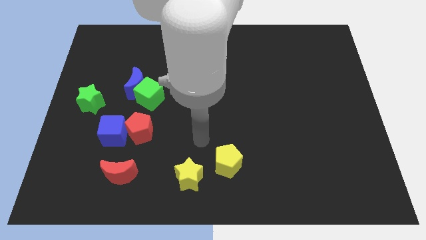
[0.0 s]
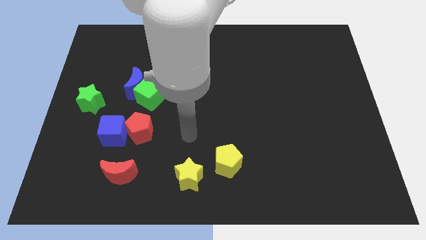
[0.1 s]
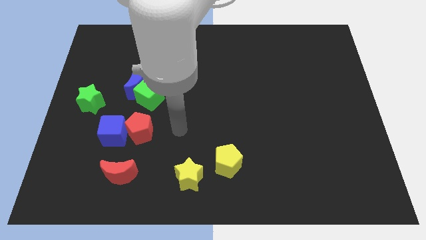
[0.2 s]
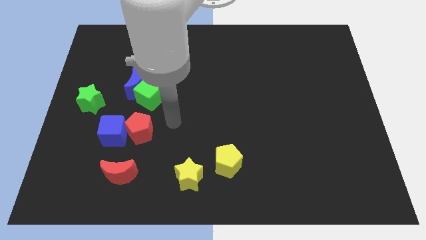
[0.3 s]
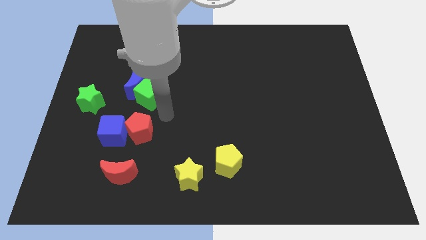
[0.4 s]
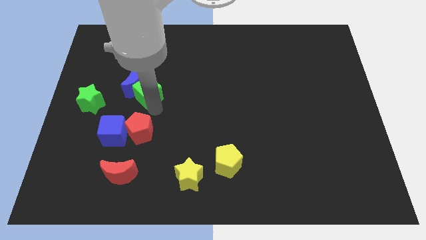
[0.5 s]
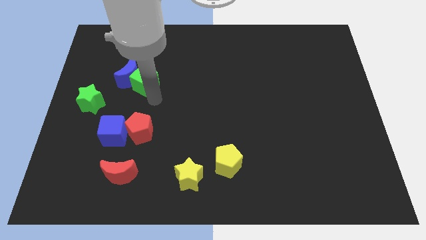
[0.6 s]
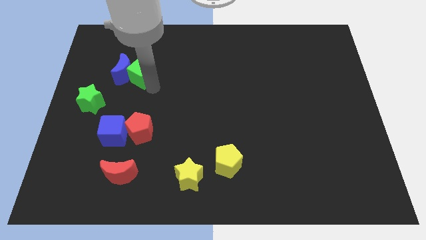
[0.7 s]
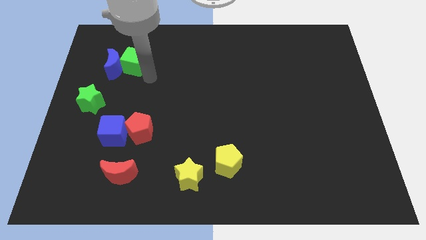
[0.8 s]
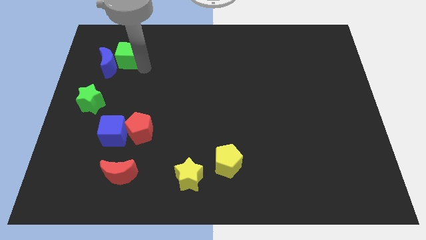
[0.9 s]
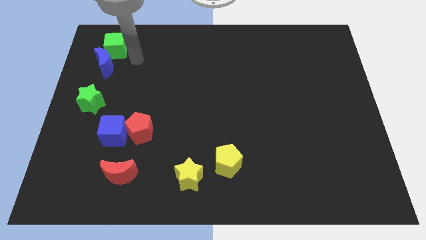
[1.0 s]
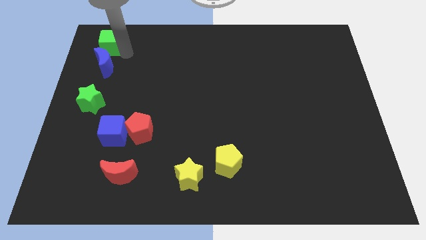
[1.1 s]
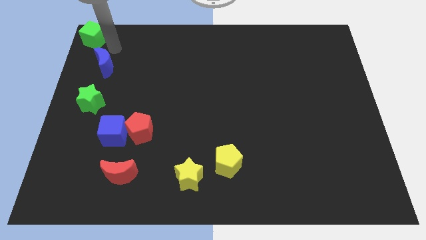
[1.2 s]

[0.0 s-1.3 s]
pull the blue moon apart from the green cube

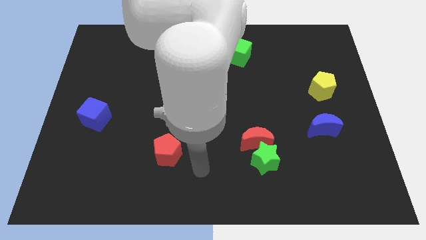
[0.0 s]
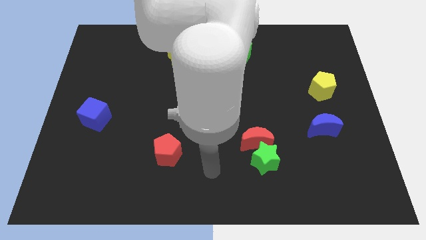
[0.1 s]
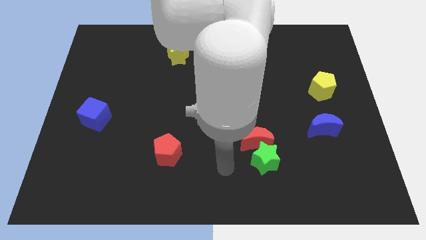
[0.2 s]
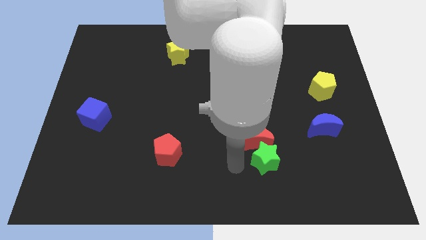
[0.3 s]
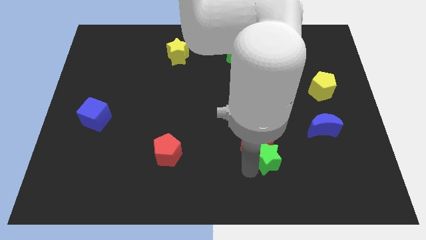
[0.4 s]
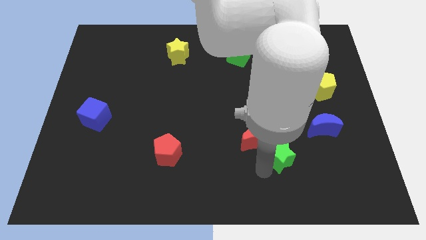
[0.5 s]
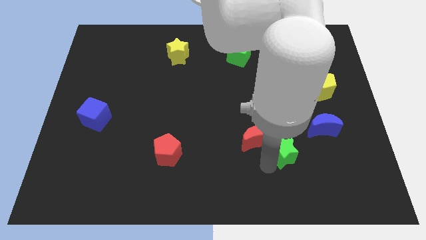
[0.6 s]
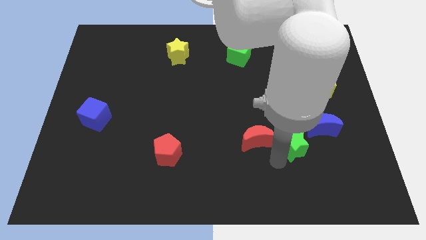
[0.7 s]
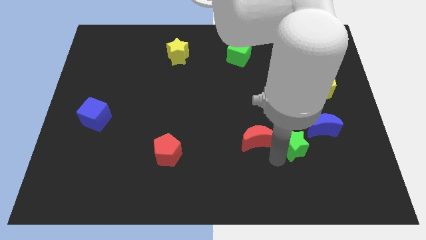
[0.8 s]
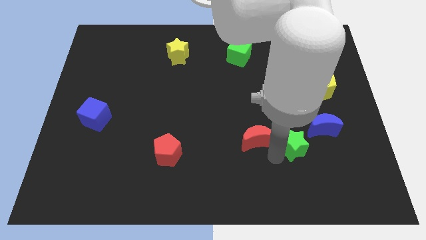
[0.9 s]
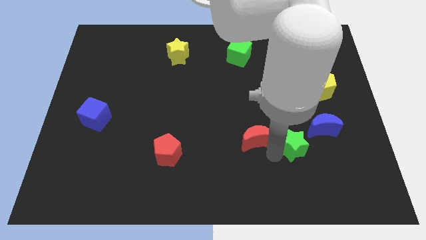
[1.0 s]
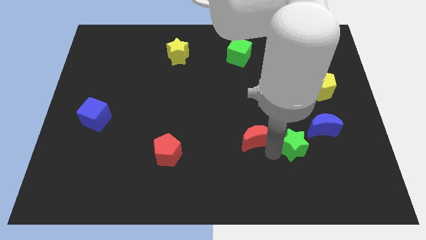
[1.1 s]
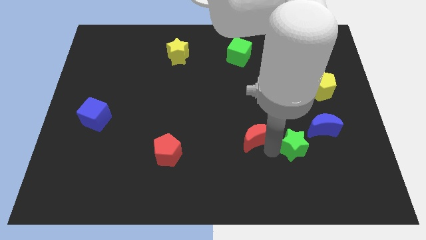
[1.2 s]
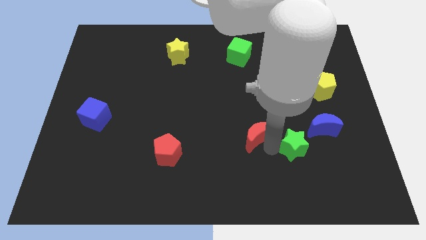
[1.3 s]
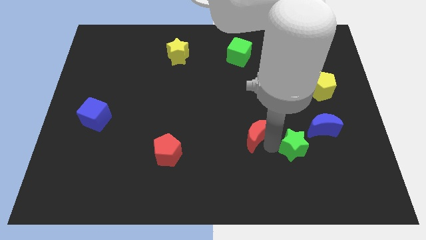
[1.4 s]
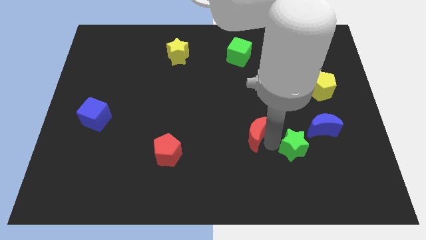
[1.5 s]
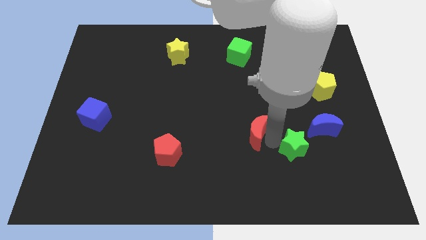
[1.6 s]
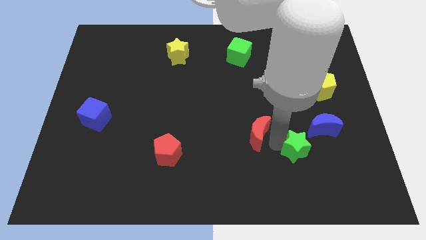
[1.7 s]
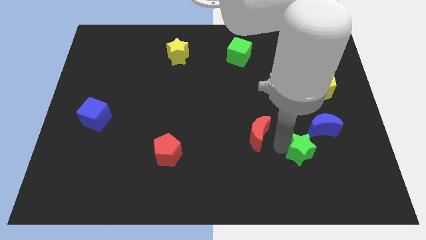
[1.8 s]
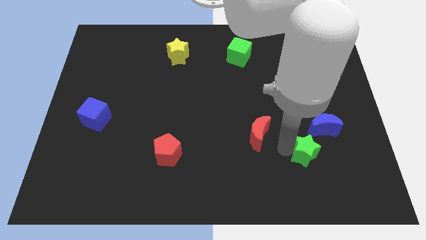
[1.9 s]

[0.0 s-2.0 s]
separate the red moon from the green star

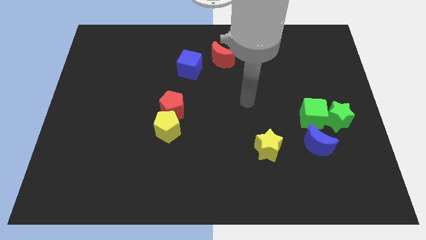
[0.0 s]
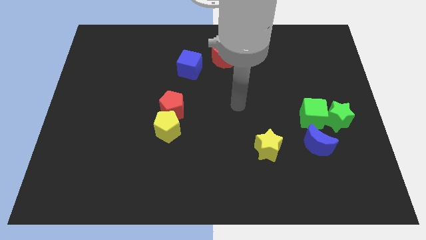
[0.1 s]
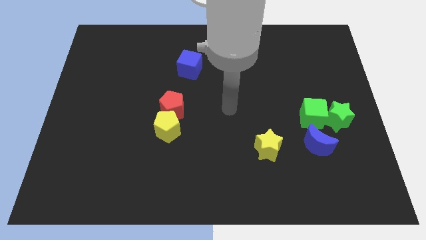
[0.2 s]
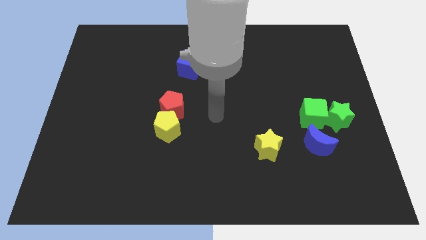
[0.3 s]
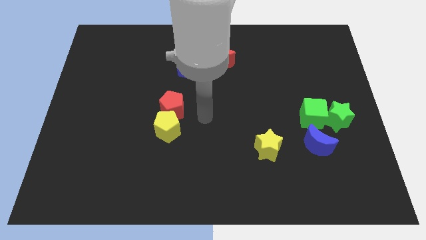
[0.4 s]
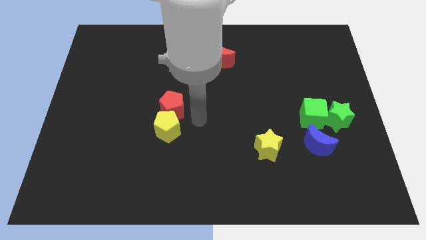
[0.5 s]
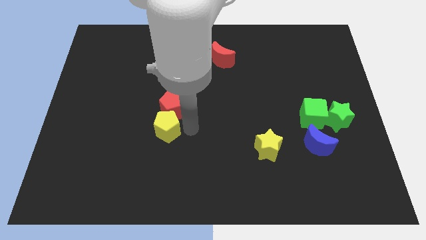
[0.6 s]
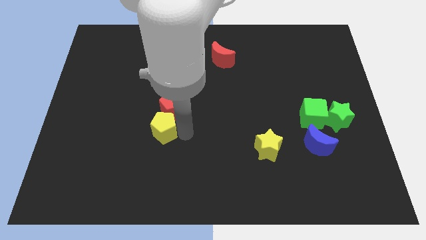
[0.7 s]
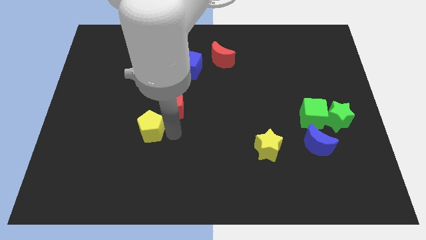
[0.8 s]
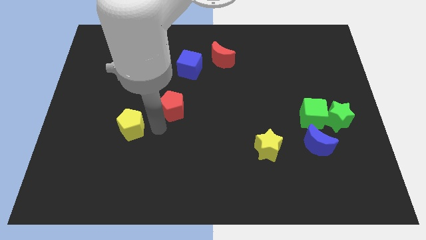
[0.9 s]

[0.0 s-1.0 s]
pull the red pentagon apart from the yellow pentagon

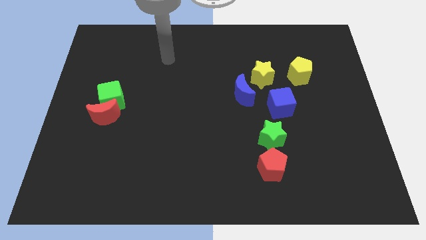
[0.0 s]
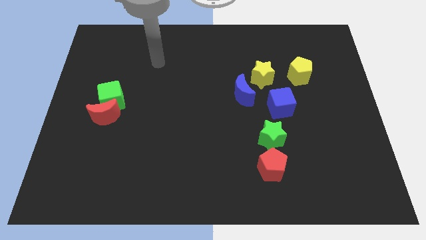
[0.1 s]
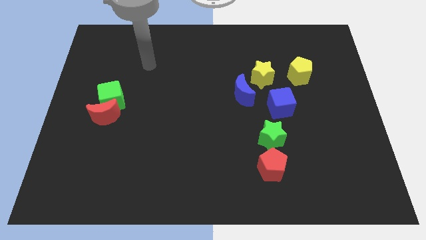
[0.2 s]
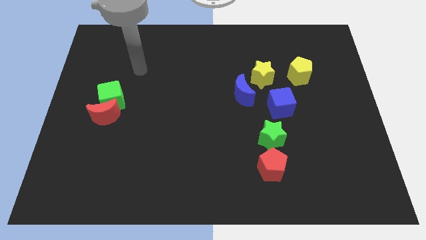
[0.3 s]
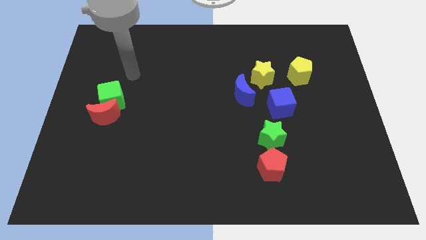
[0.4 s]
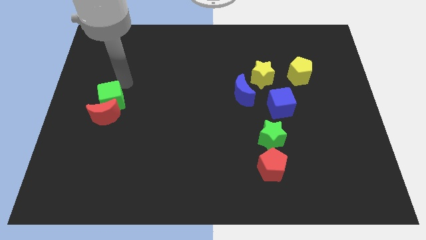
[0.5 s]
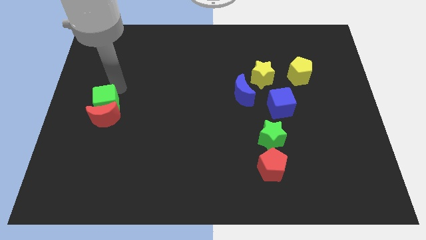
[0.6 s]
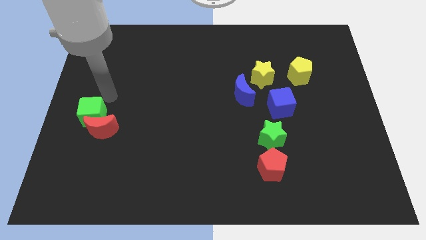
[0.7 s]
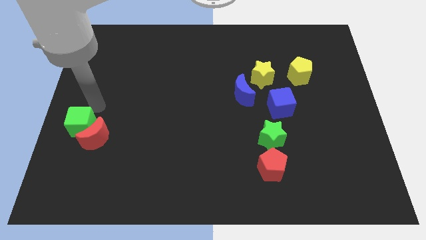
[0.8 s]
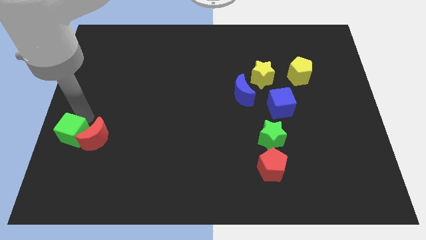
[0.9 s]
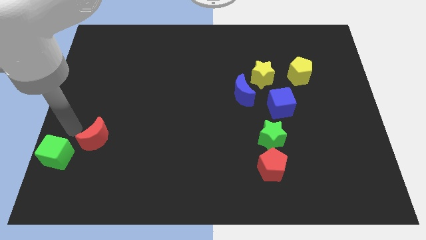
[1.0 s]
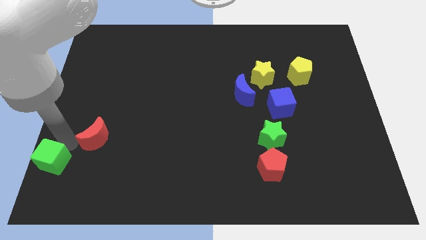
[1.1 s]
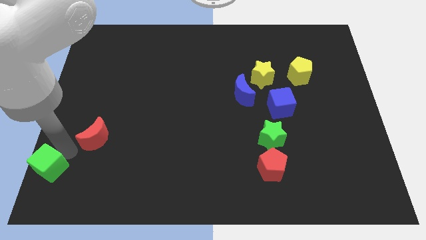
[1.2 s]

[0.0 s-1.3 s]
separate the red moon from the green cube

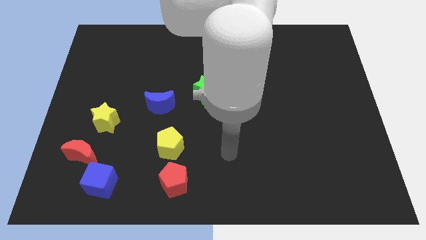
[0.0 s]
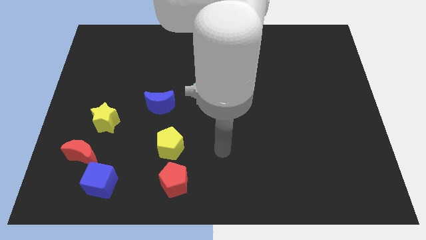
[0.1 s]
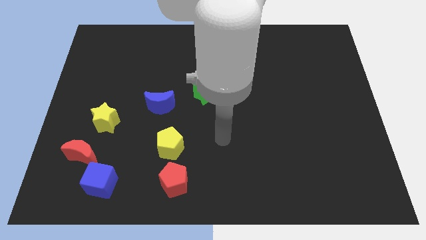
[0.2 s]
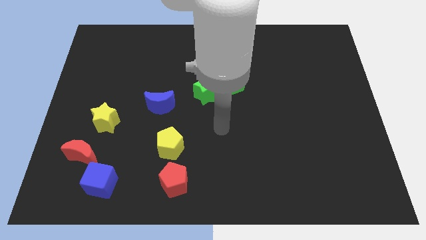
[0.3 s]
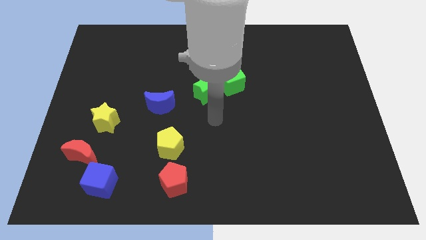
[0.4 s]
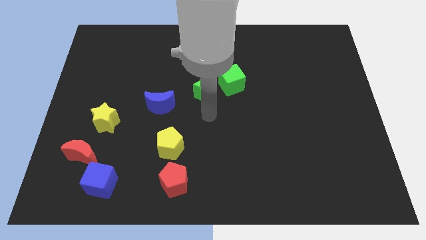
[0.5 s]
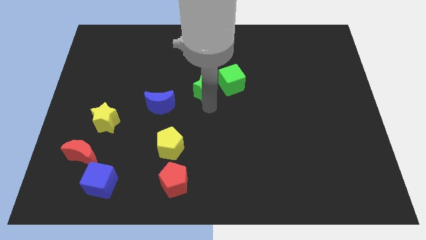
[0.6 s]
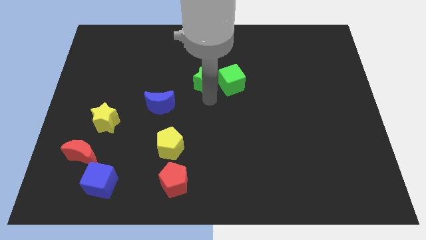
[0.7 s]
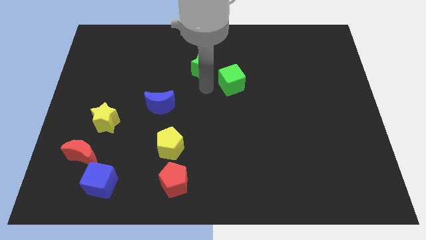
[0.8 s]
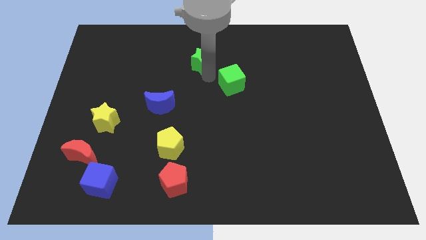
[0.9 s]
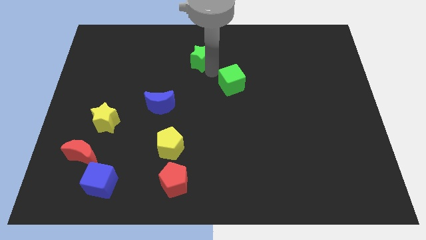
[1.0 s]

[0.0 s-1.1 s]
separate the green cube from the green star

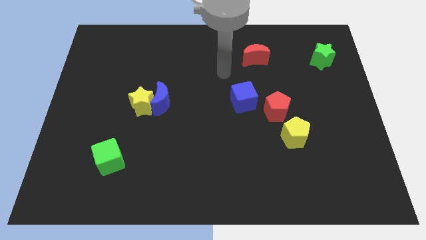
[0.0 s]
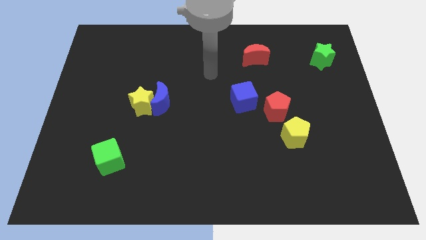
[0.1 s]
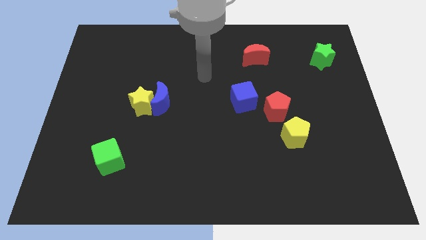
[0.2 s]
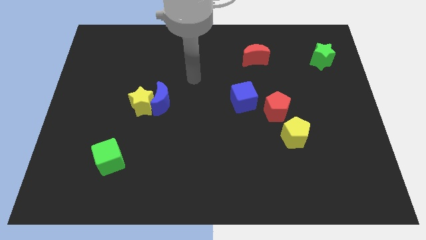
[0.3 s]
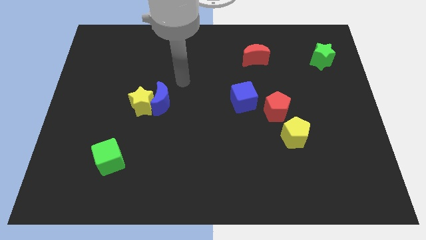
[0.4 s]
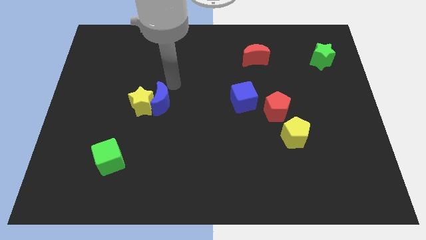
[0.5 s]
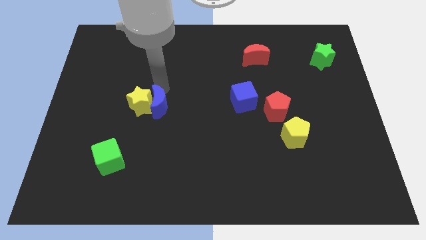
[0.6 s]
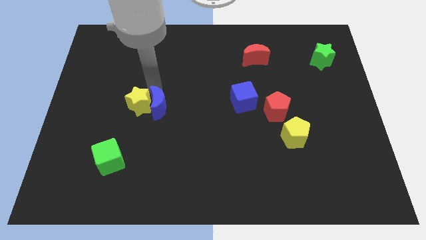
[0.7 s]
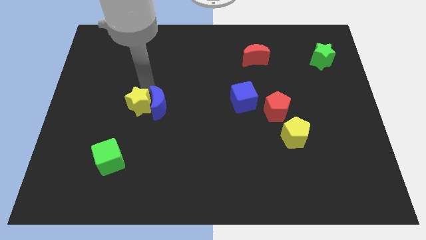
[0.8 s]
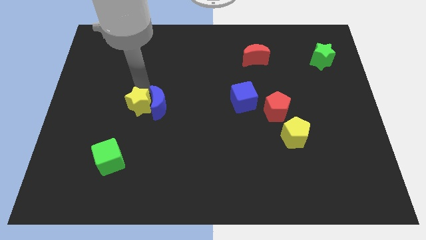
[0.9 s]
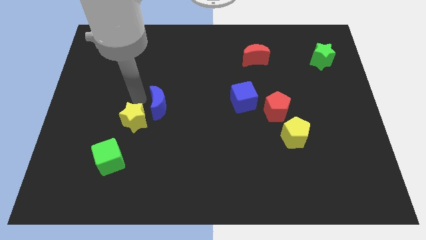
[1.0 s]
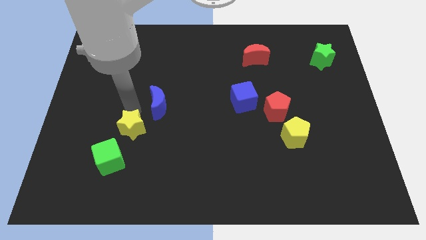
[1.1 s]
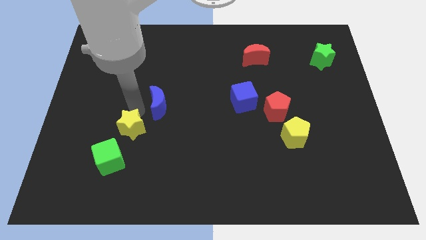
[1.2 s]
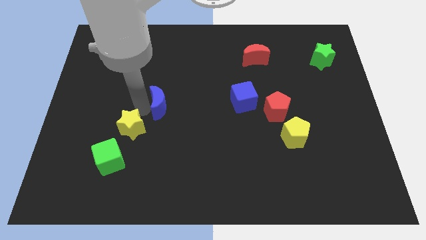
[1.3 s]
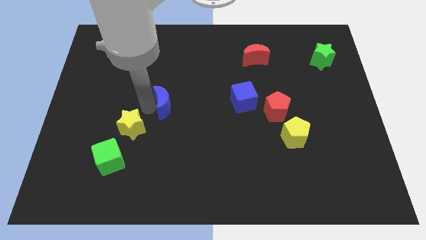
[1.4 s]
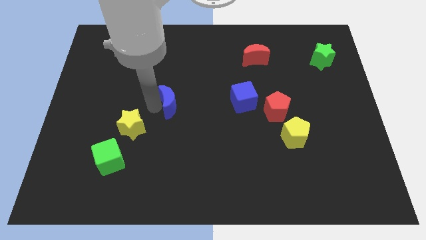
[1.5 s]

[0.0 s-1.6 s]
separate the blue moon from the yellow star

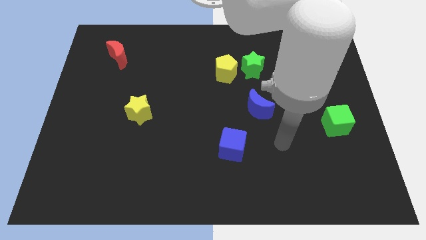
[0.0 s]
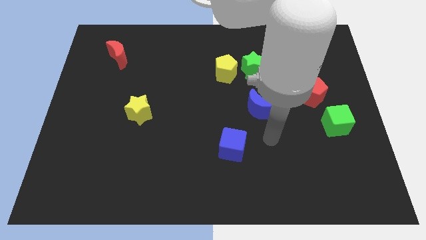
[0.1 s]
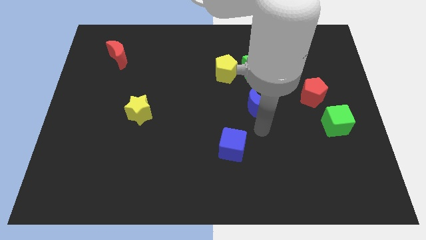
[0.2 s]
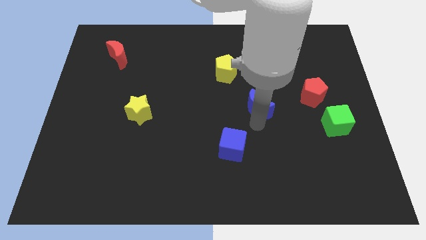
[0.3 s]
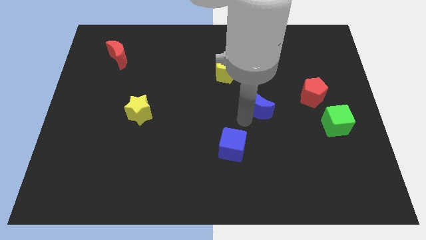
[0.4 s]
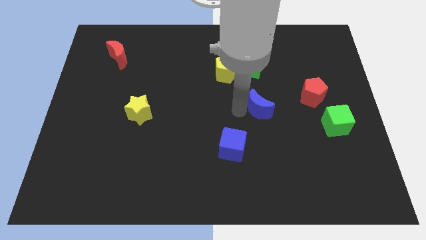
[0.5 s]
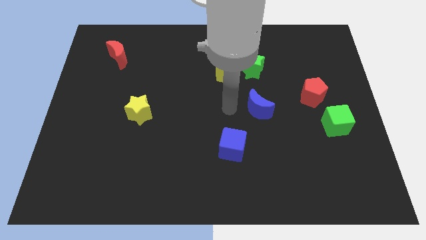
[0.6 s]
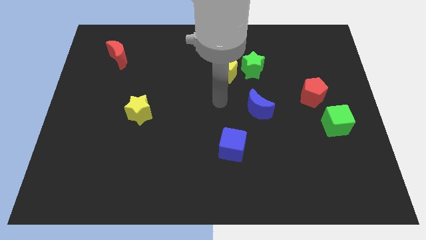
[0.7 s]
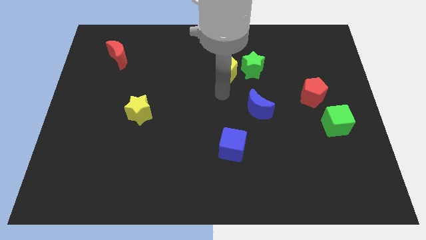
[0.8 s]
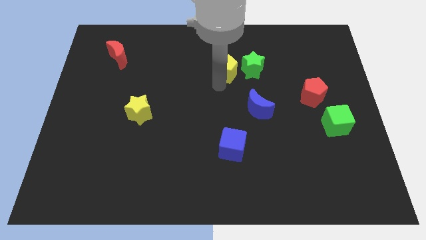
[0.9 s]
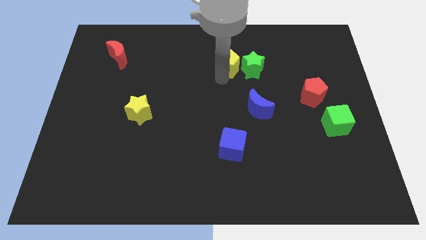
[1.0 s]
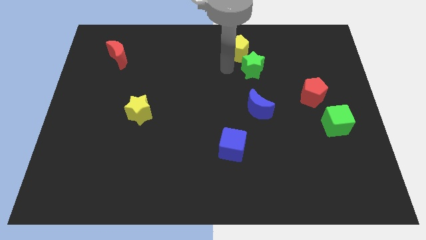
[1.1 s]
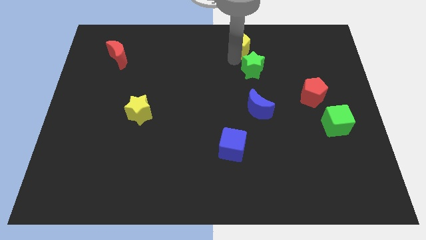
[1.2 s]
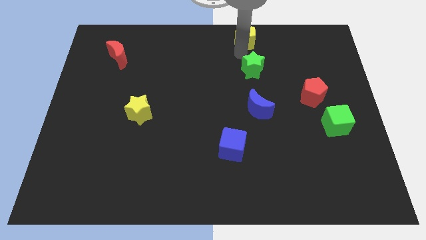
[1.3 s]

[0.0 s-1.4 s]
pull the green star apart from the yellow pentagon
